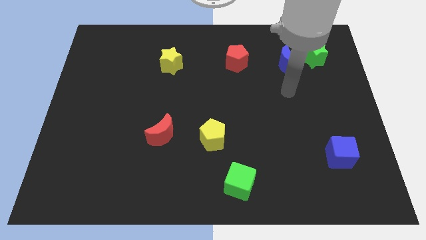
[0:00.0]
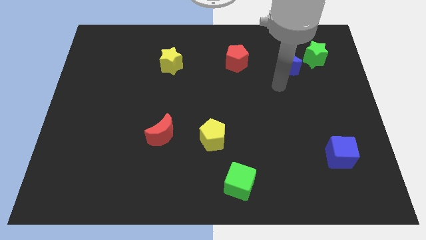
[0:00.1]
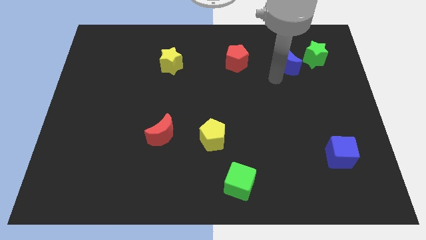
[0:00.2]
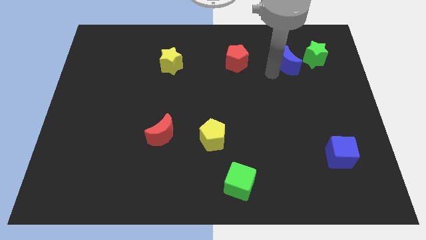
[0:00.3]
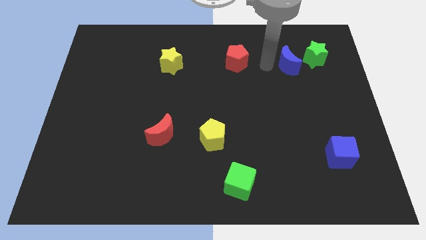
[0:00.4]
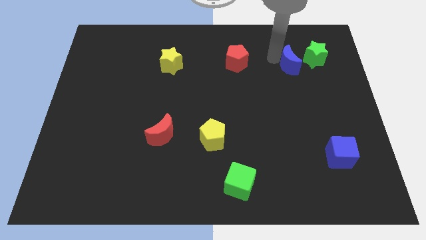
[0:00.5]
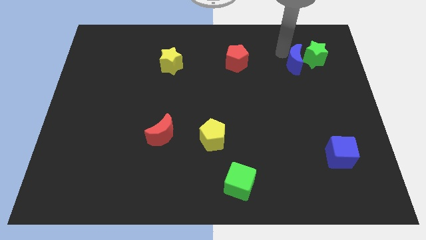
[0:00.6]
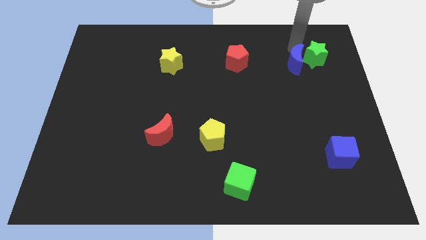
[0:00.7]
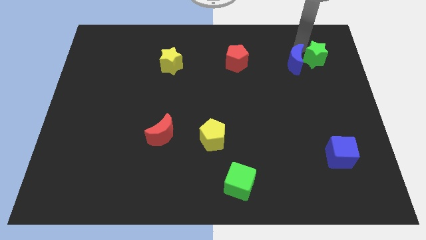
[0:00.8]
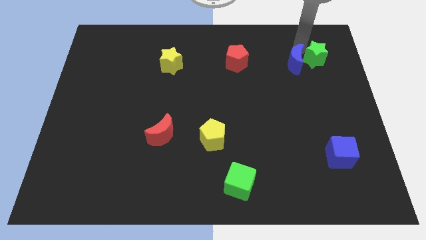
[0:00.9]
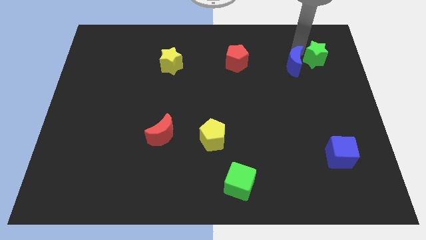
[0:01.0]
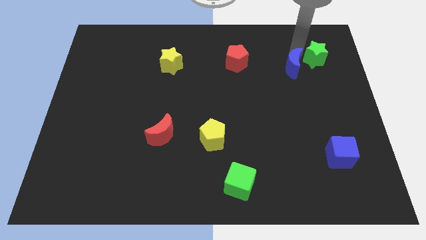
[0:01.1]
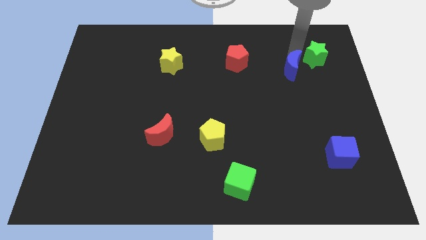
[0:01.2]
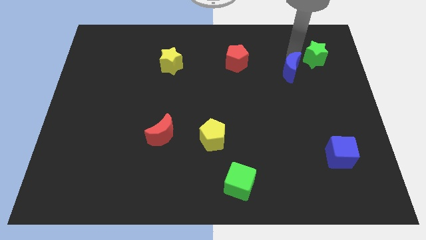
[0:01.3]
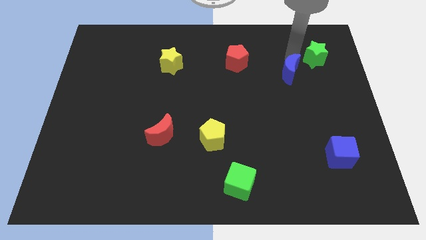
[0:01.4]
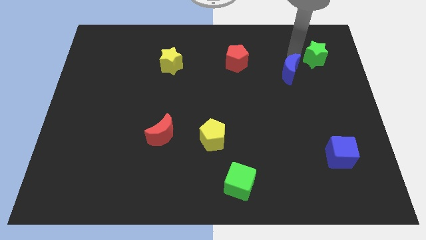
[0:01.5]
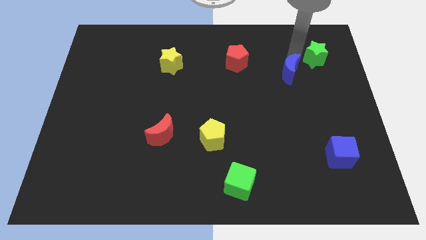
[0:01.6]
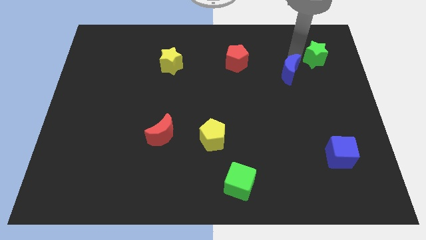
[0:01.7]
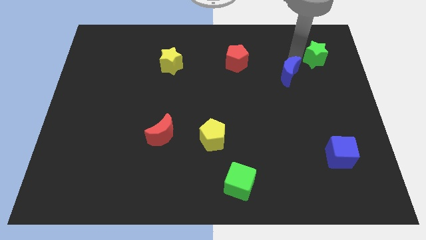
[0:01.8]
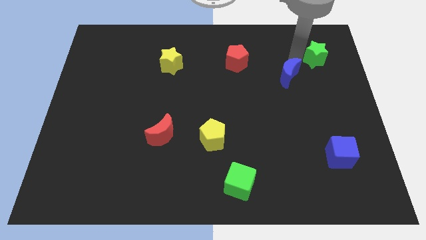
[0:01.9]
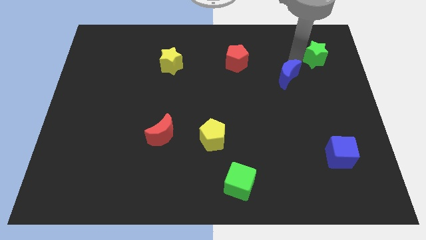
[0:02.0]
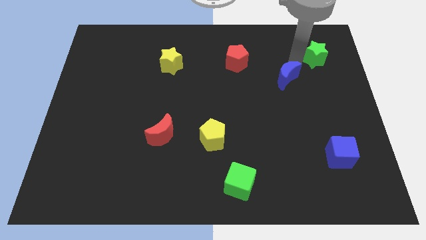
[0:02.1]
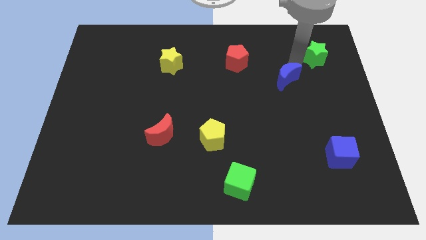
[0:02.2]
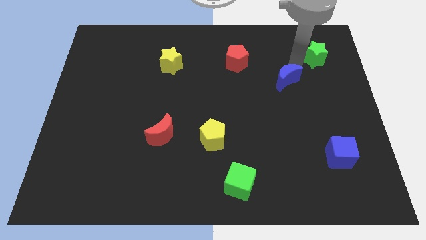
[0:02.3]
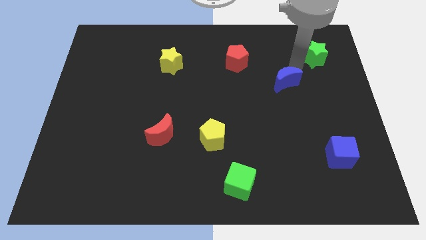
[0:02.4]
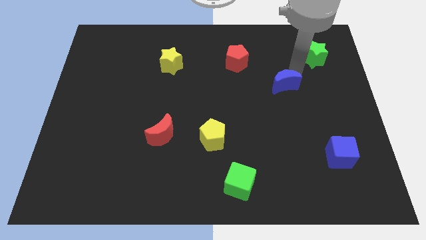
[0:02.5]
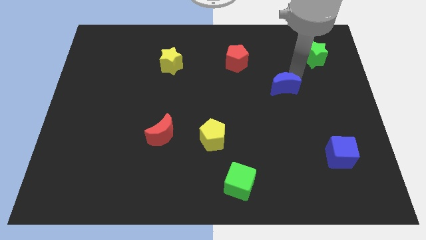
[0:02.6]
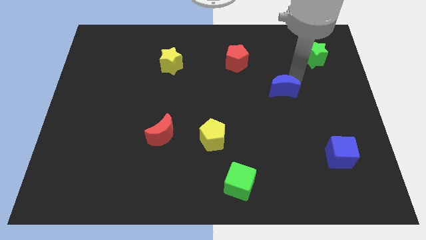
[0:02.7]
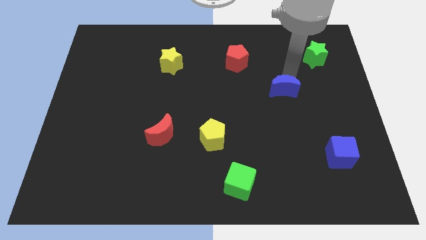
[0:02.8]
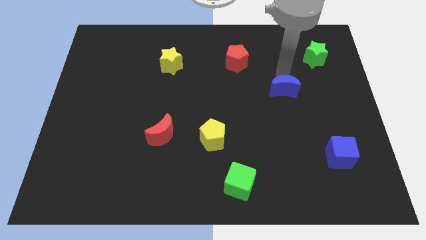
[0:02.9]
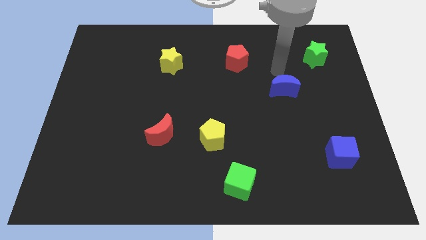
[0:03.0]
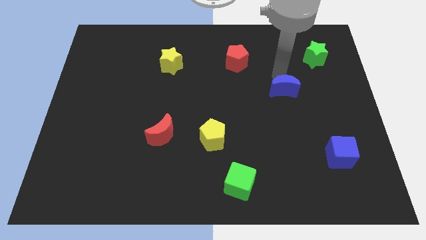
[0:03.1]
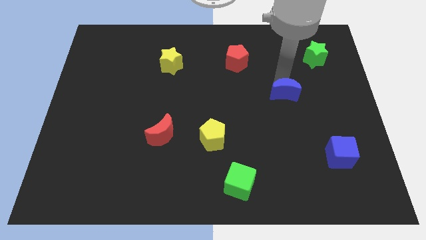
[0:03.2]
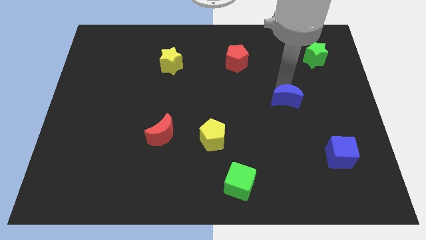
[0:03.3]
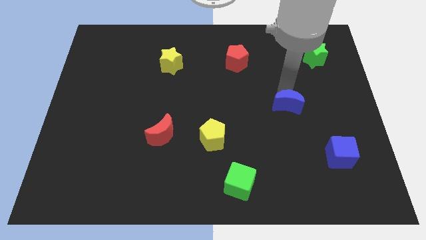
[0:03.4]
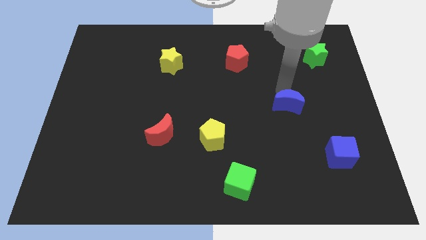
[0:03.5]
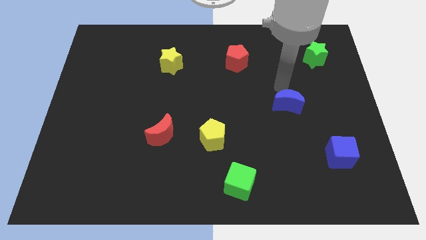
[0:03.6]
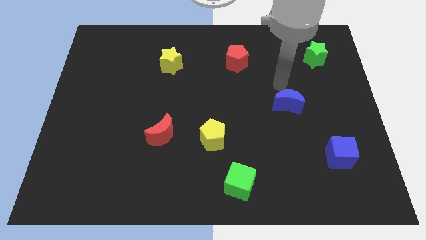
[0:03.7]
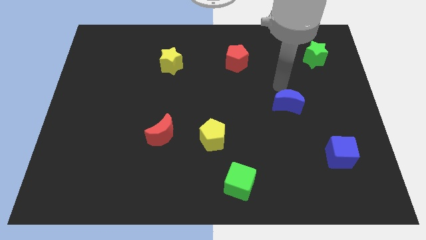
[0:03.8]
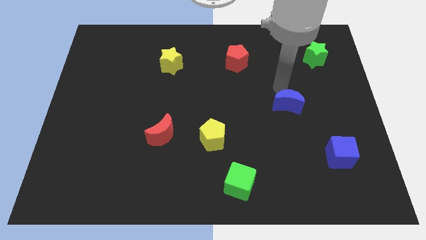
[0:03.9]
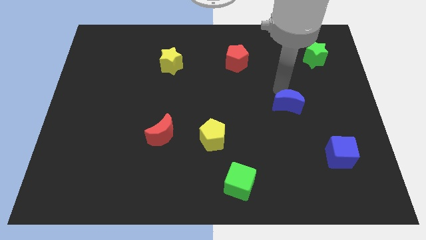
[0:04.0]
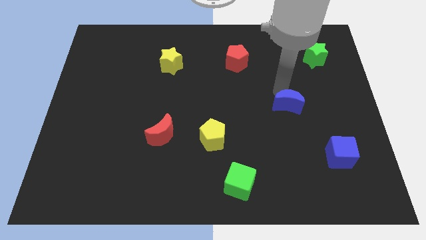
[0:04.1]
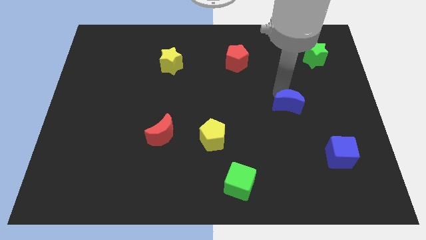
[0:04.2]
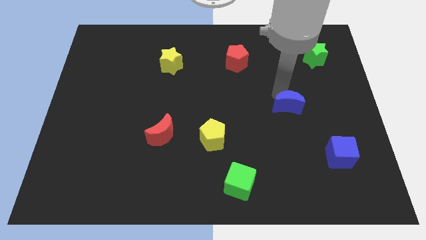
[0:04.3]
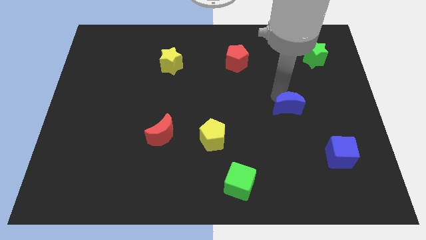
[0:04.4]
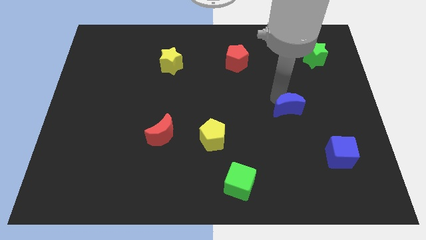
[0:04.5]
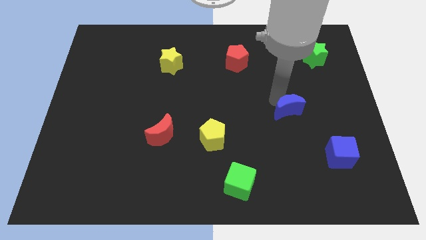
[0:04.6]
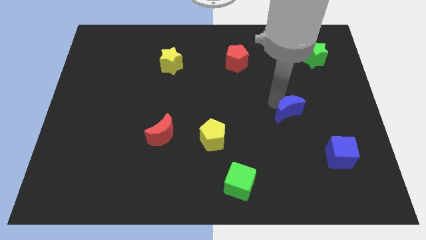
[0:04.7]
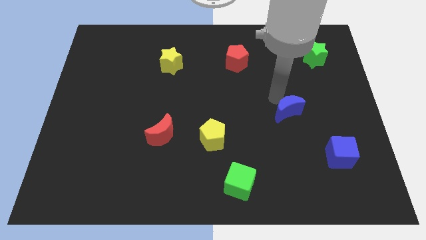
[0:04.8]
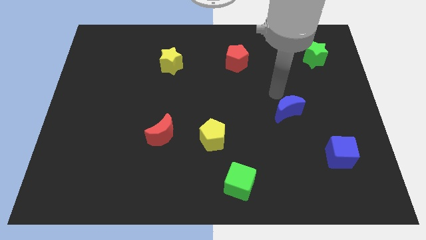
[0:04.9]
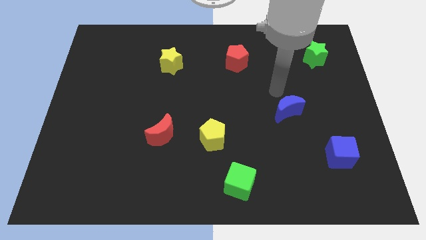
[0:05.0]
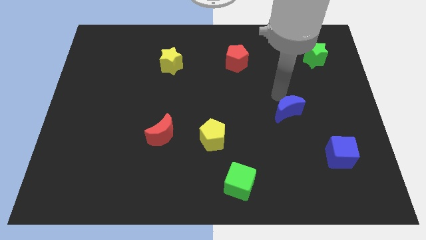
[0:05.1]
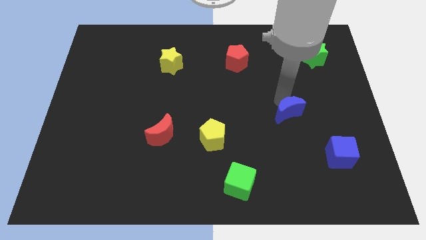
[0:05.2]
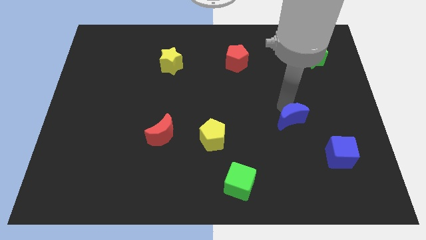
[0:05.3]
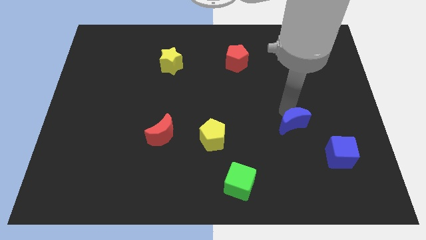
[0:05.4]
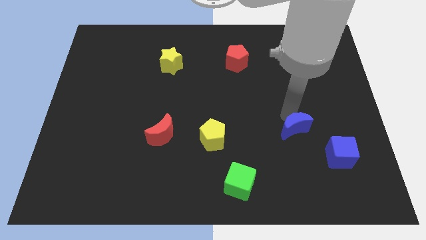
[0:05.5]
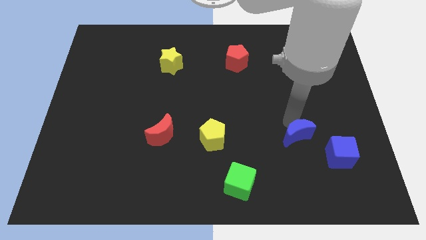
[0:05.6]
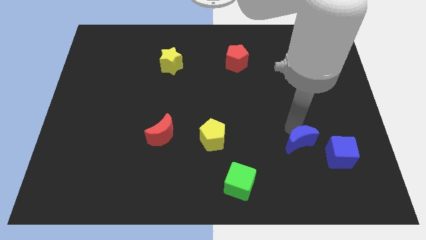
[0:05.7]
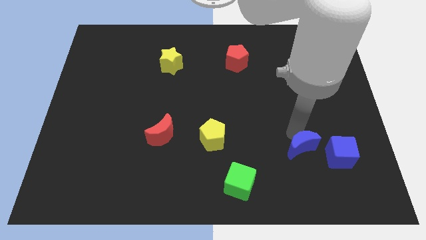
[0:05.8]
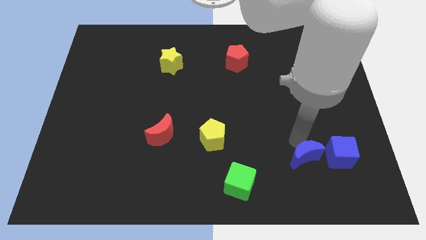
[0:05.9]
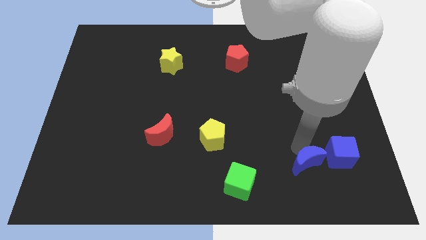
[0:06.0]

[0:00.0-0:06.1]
push the blue moon diagonally down and to the left of the blue cube

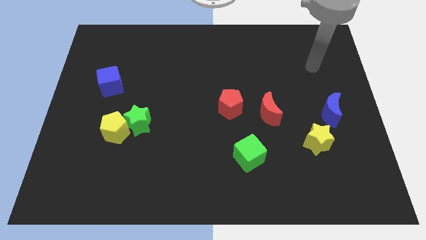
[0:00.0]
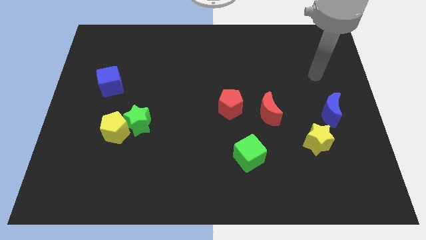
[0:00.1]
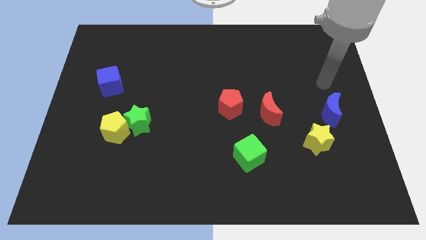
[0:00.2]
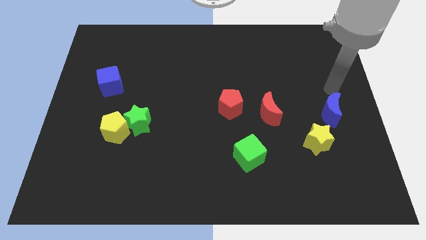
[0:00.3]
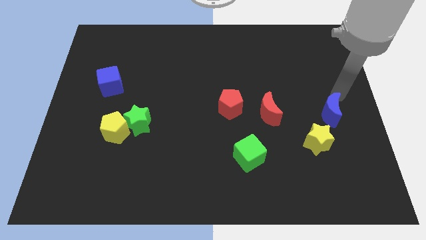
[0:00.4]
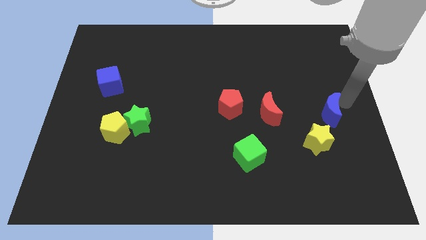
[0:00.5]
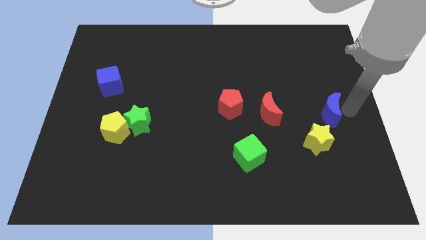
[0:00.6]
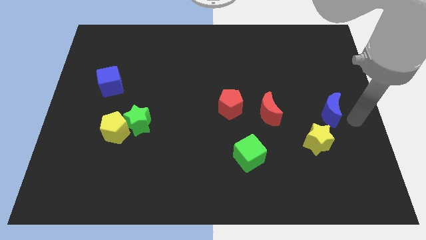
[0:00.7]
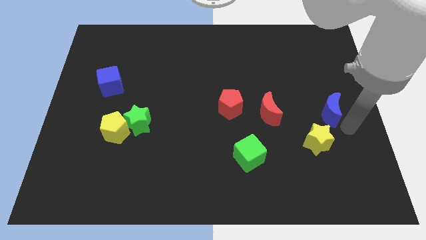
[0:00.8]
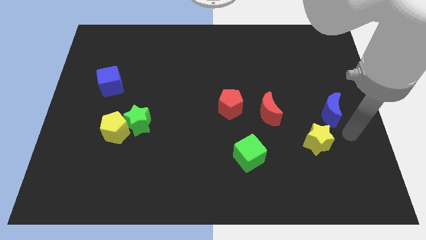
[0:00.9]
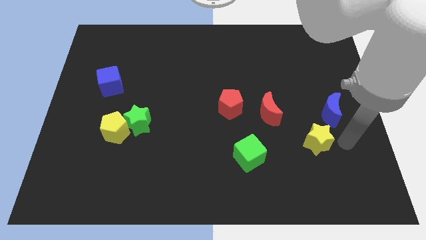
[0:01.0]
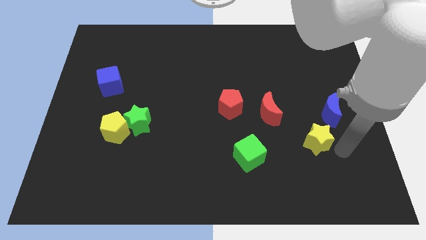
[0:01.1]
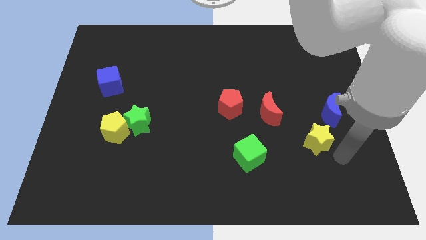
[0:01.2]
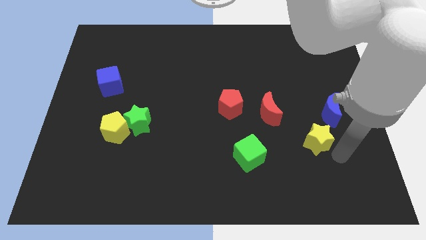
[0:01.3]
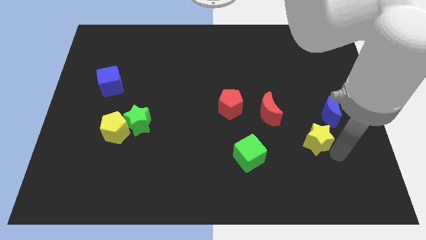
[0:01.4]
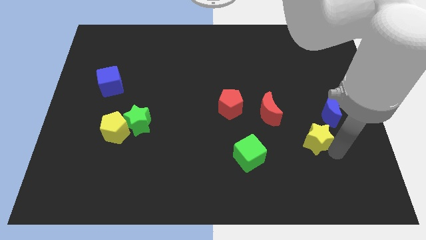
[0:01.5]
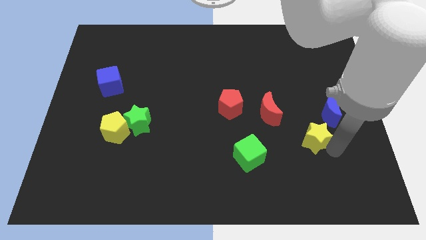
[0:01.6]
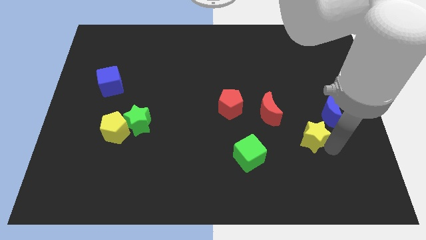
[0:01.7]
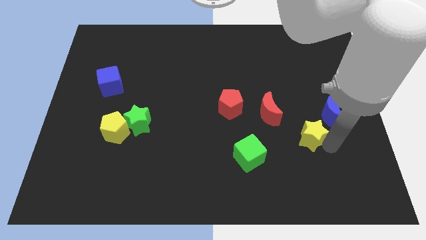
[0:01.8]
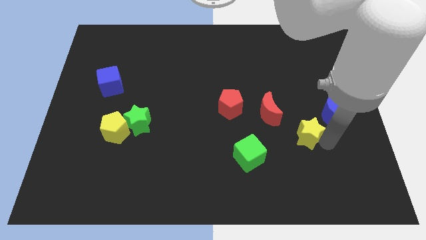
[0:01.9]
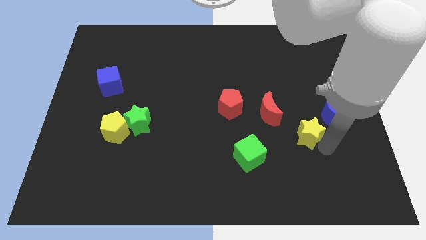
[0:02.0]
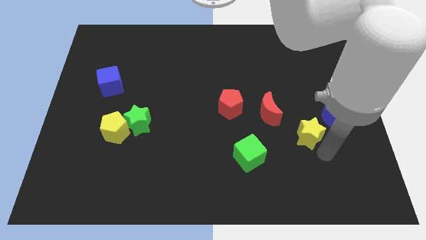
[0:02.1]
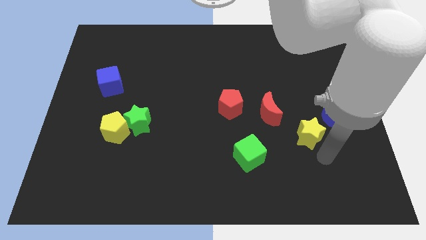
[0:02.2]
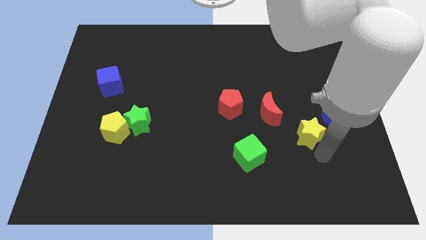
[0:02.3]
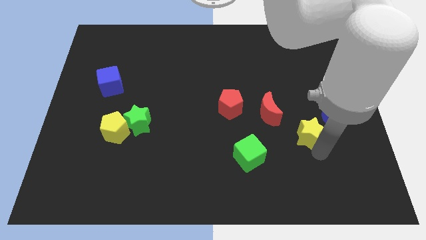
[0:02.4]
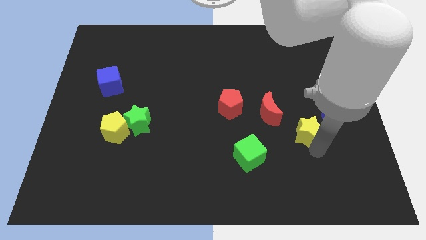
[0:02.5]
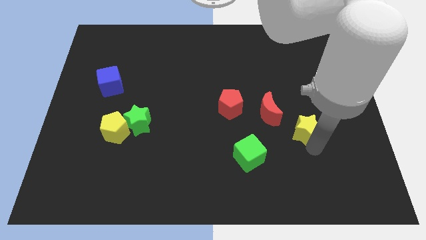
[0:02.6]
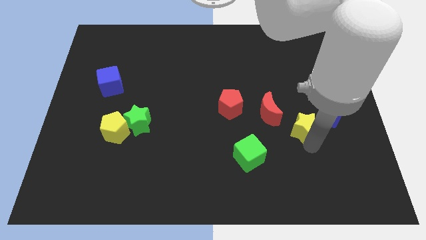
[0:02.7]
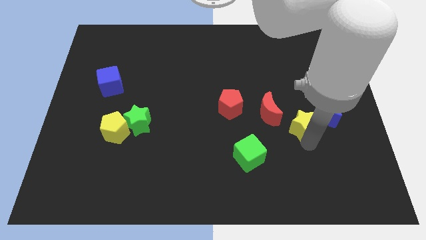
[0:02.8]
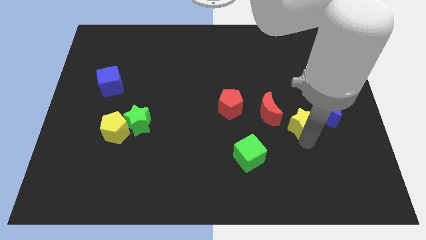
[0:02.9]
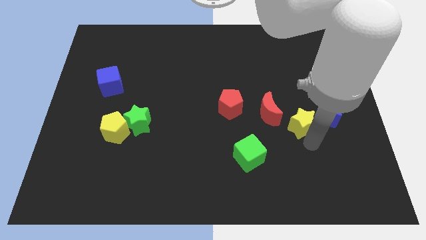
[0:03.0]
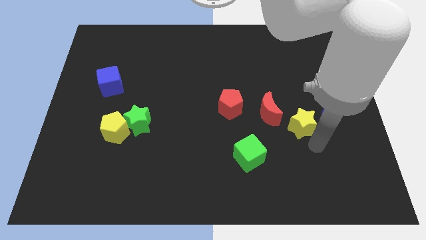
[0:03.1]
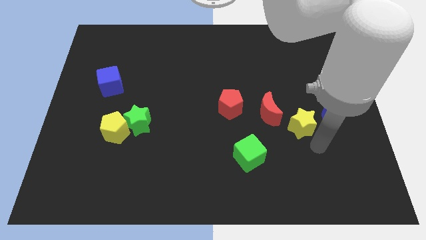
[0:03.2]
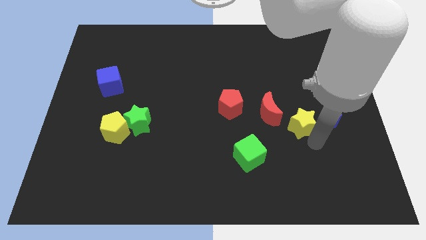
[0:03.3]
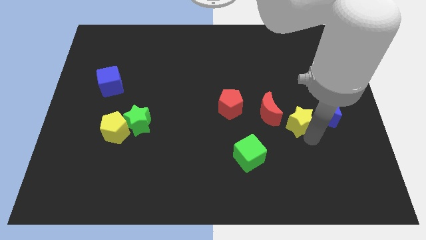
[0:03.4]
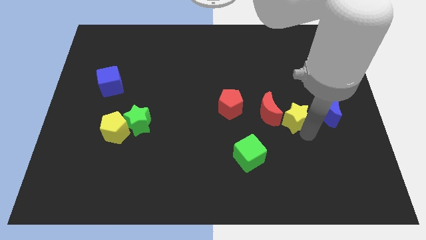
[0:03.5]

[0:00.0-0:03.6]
move the yellow star right of the red pentagon
